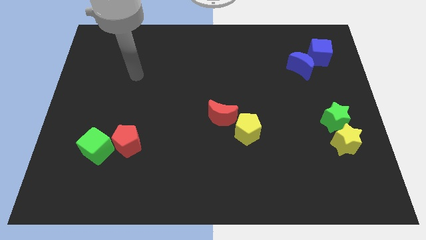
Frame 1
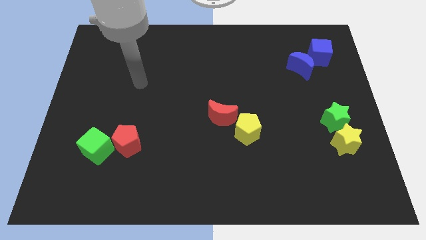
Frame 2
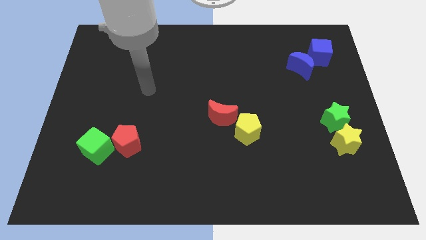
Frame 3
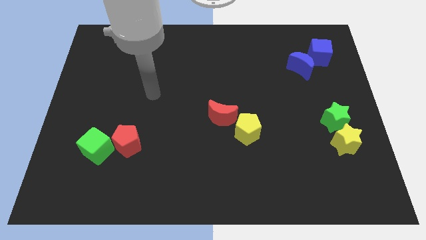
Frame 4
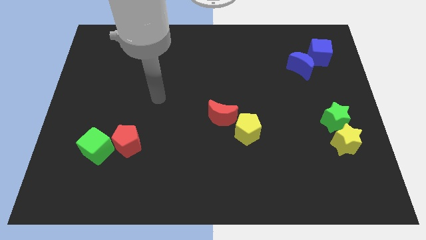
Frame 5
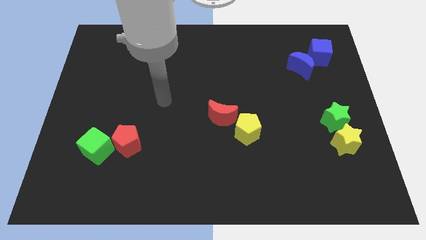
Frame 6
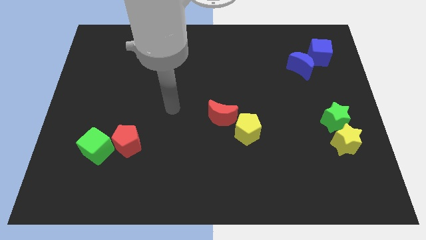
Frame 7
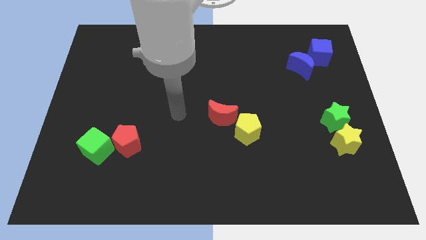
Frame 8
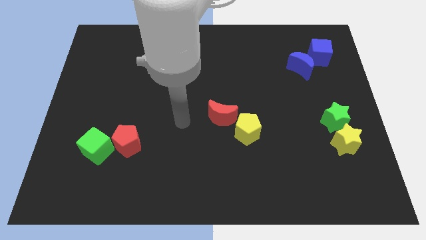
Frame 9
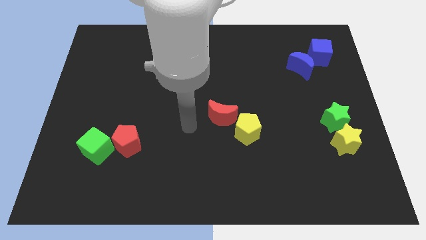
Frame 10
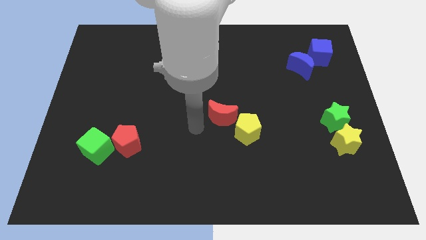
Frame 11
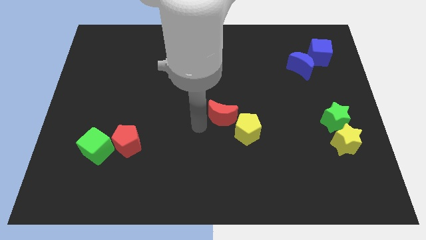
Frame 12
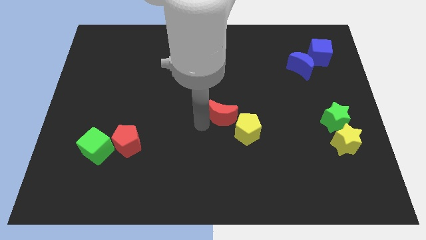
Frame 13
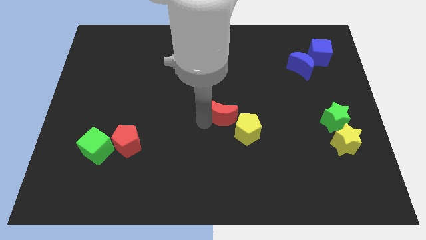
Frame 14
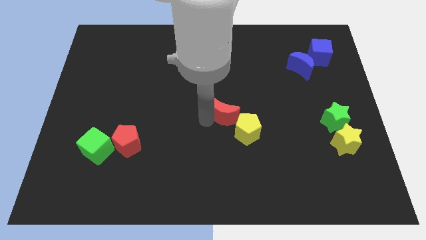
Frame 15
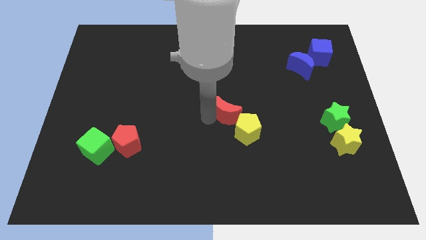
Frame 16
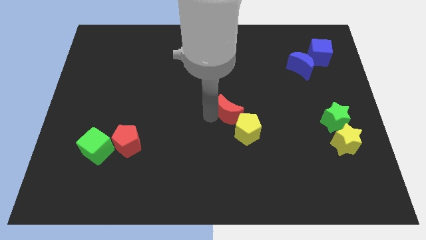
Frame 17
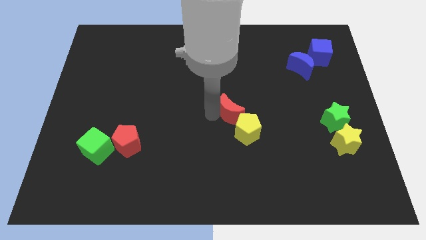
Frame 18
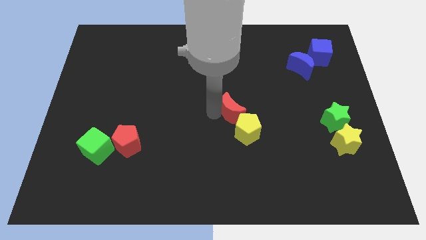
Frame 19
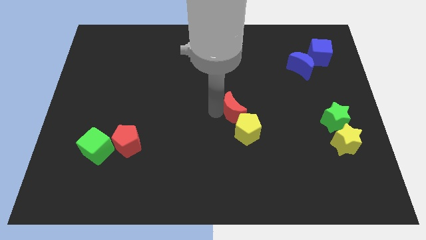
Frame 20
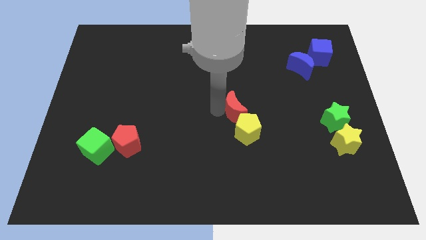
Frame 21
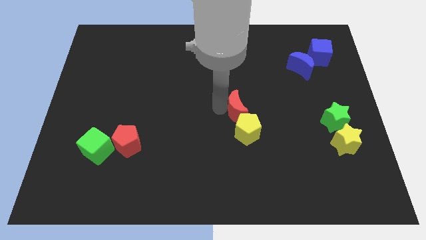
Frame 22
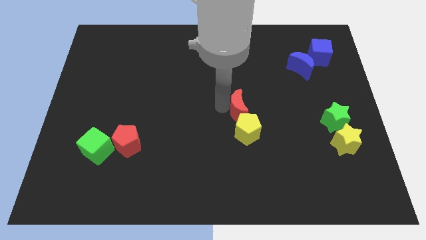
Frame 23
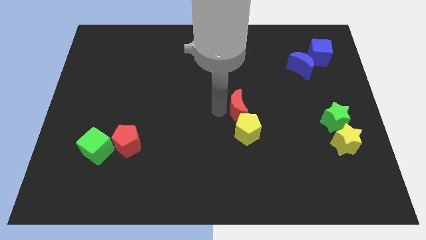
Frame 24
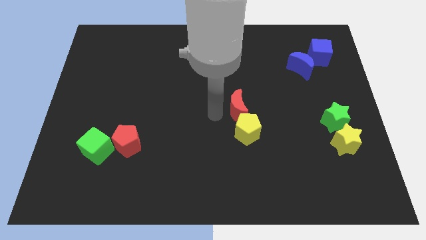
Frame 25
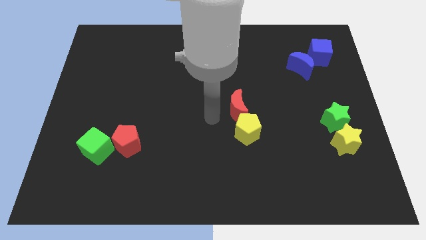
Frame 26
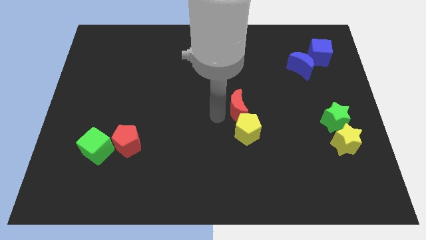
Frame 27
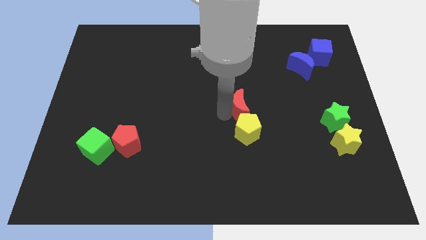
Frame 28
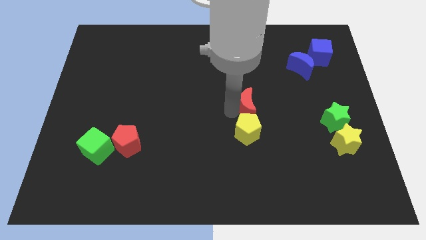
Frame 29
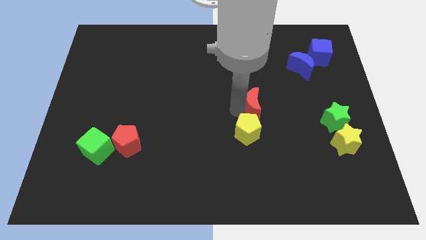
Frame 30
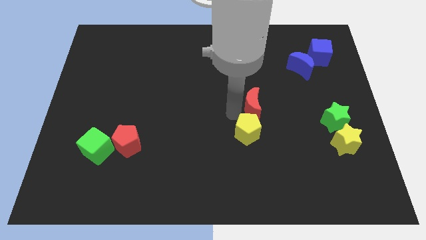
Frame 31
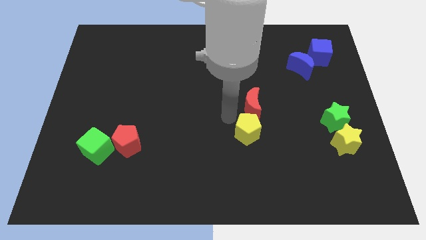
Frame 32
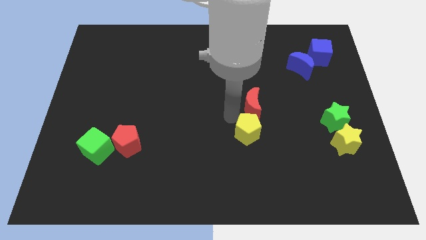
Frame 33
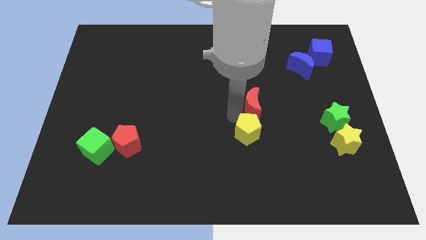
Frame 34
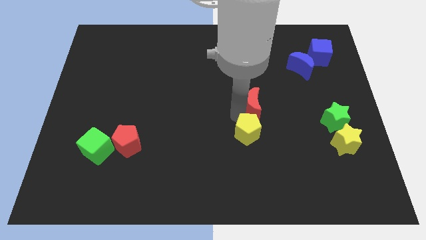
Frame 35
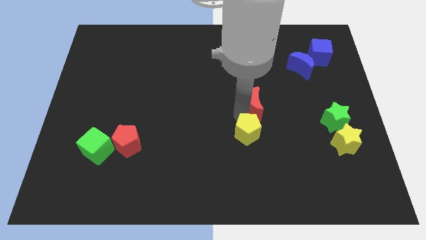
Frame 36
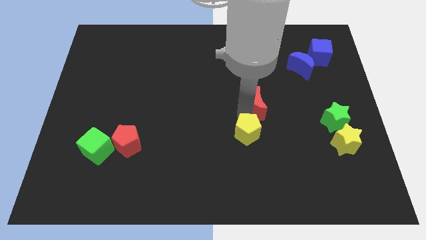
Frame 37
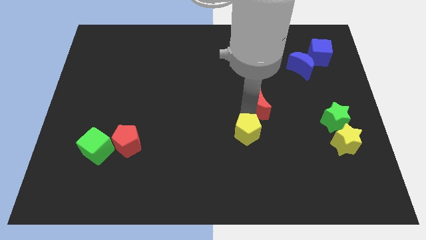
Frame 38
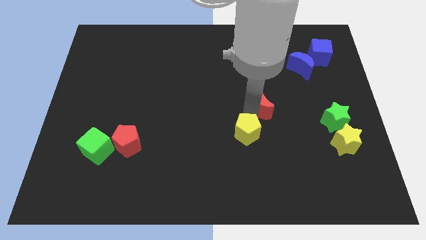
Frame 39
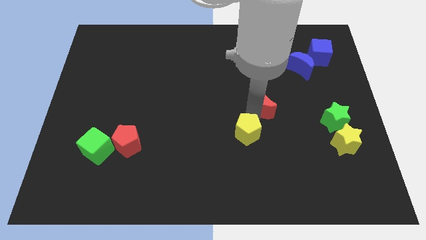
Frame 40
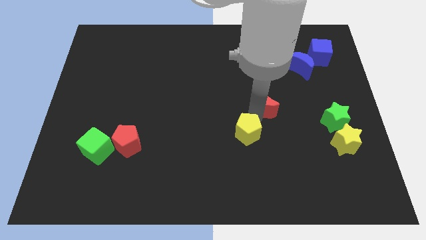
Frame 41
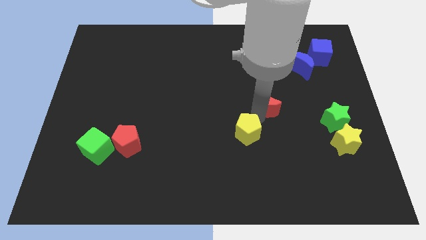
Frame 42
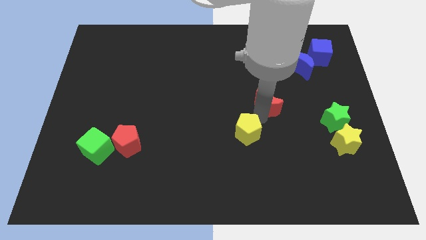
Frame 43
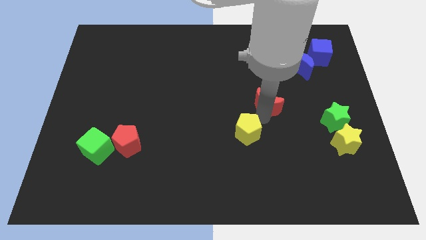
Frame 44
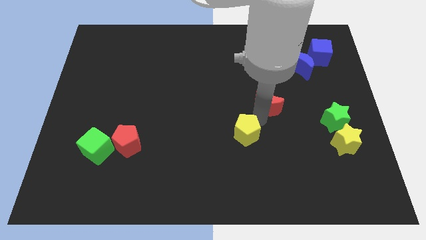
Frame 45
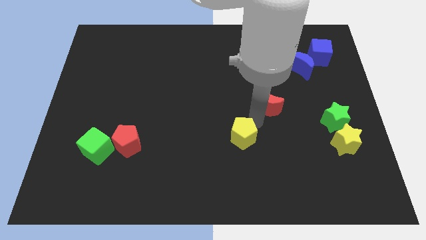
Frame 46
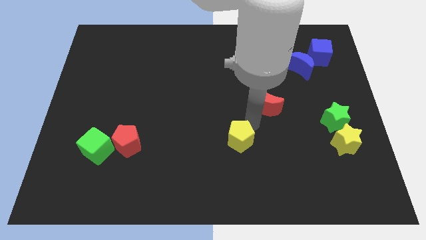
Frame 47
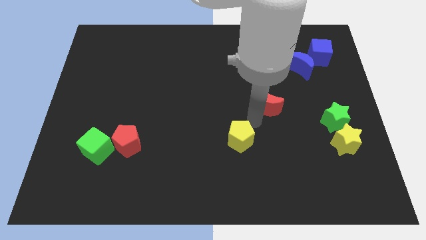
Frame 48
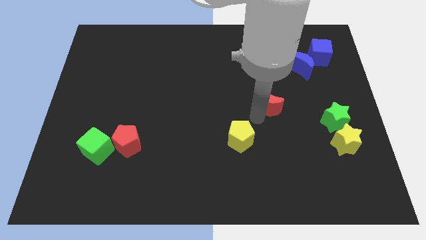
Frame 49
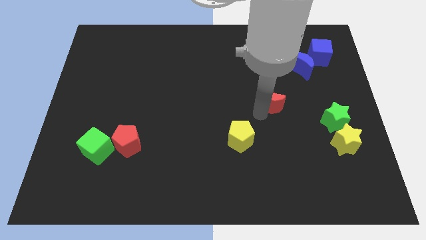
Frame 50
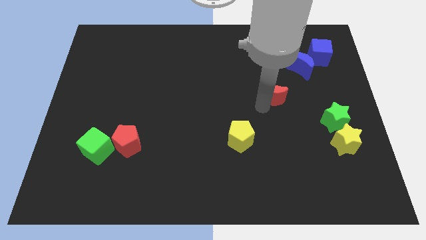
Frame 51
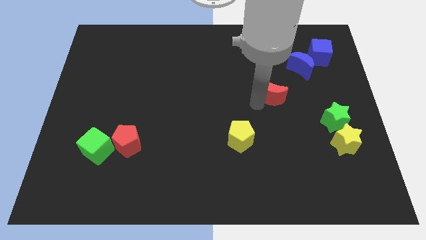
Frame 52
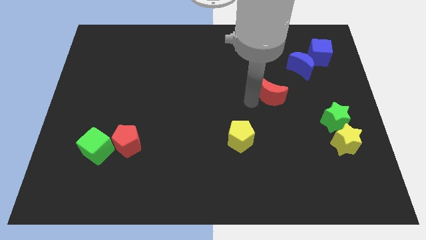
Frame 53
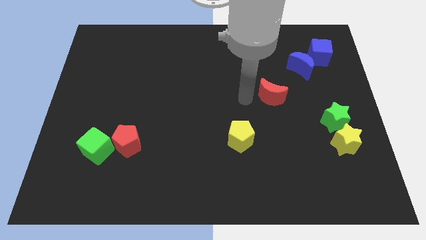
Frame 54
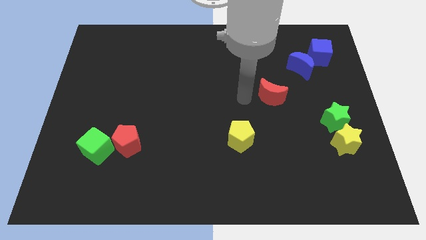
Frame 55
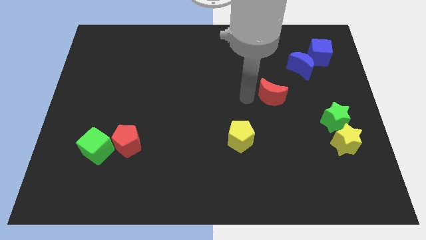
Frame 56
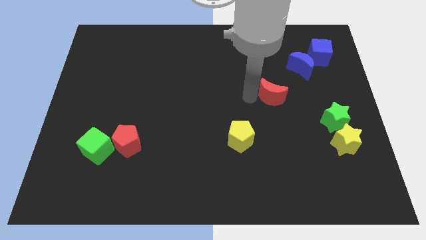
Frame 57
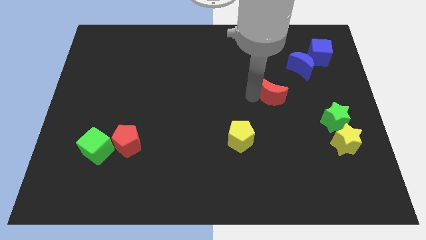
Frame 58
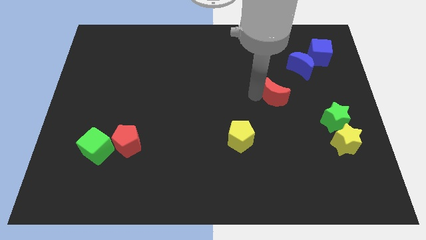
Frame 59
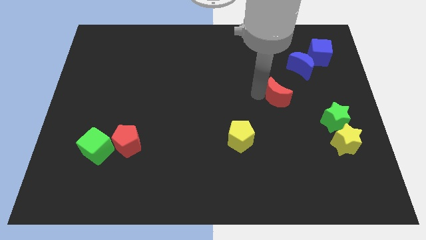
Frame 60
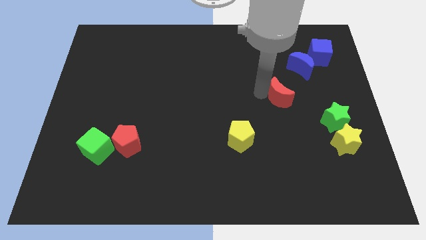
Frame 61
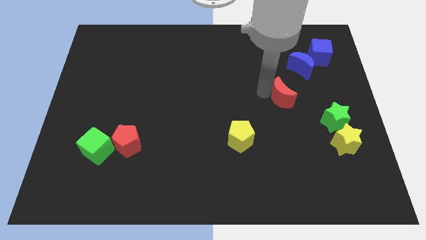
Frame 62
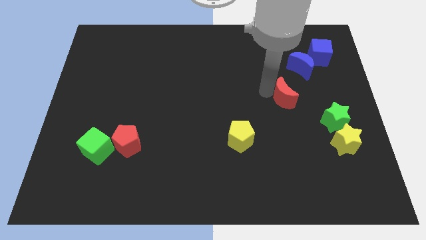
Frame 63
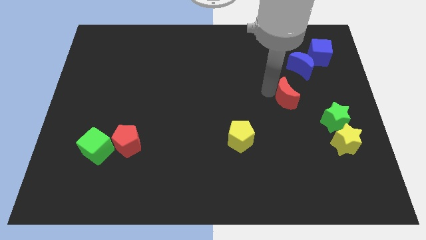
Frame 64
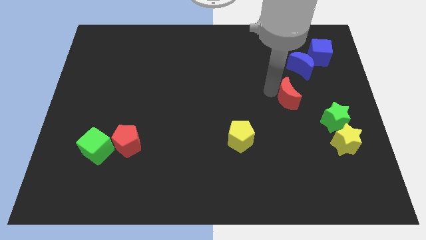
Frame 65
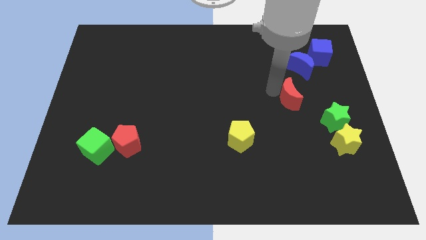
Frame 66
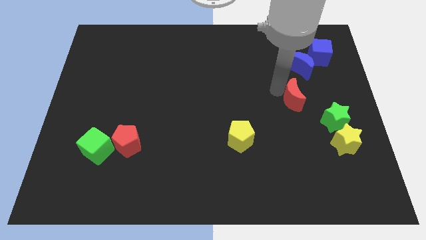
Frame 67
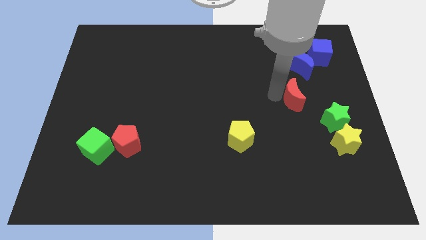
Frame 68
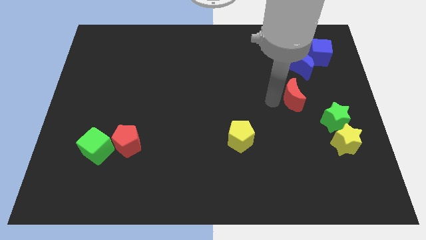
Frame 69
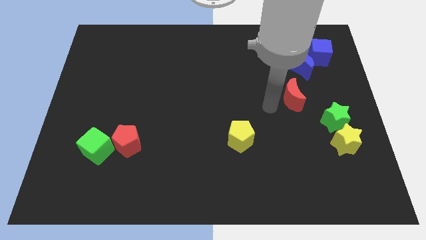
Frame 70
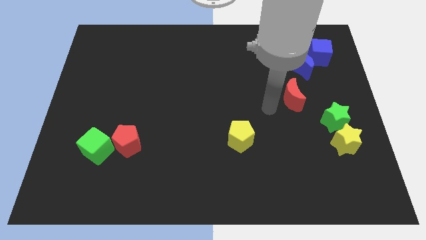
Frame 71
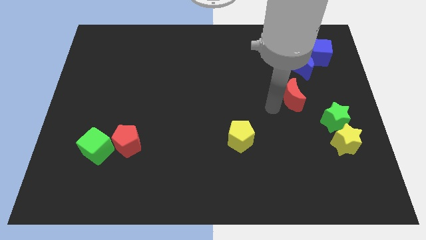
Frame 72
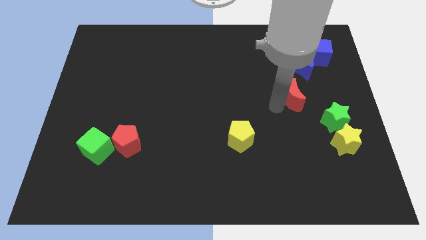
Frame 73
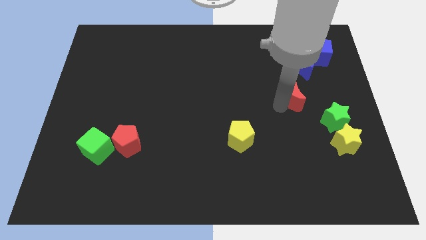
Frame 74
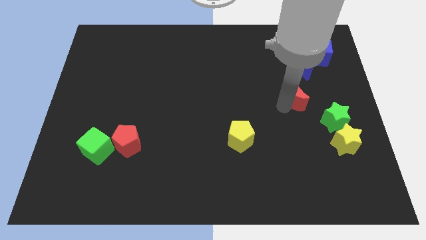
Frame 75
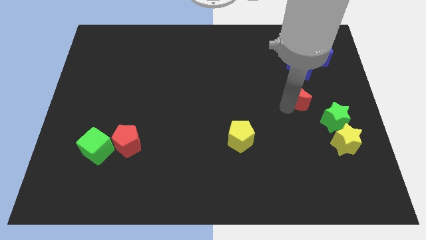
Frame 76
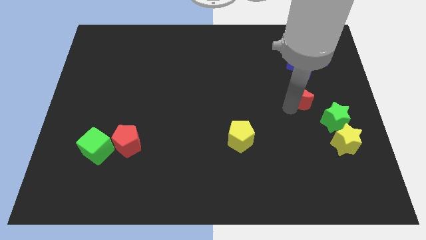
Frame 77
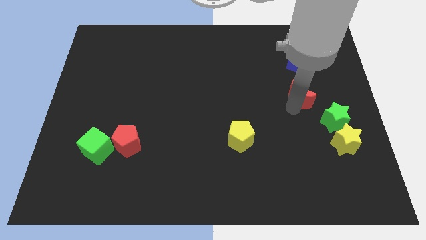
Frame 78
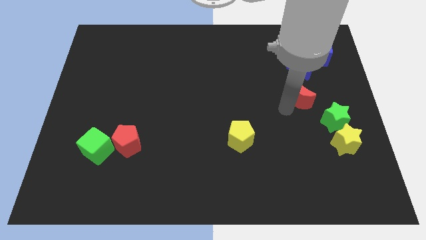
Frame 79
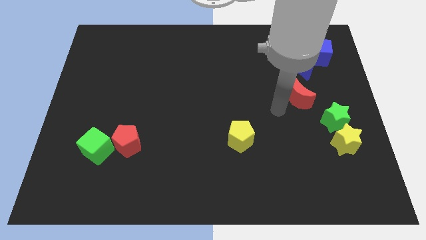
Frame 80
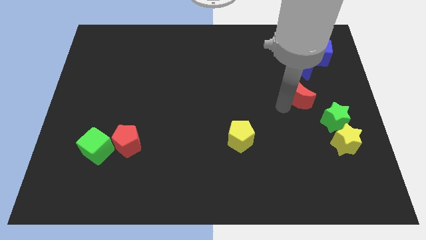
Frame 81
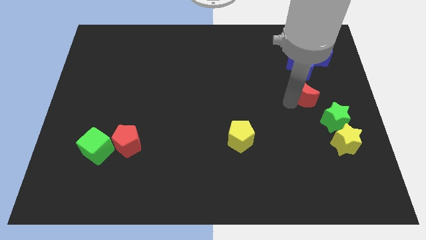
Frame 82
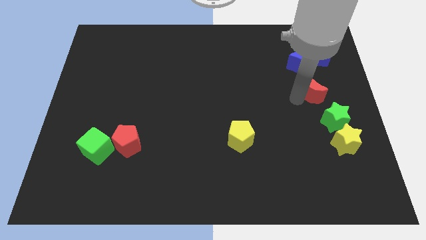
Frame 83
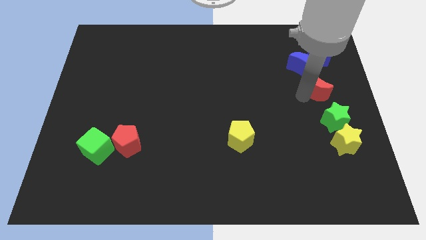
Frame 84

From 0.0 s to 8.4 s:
slide the red moon to the bottom right side of the blue moon
